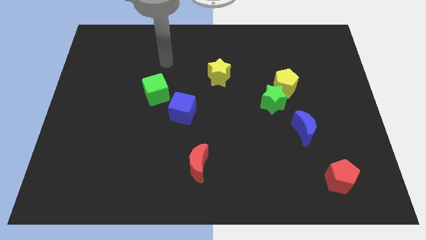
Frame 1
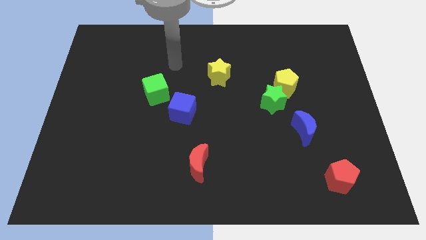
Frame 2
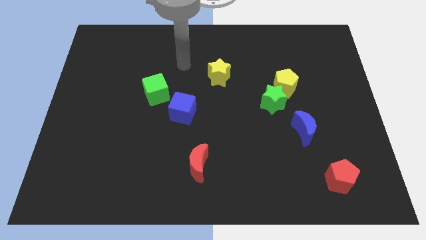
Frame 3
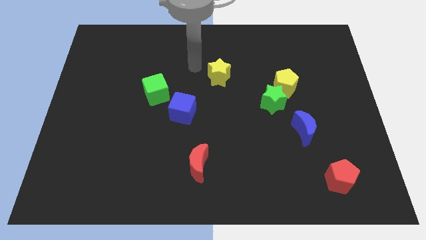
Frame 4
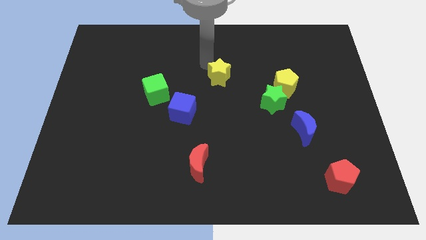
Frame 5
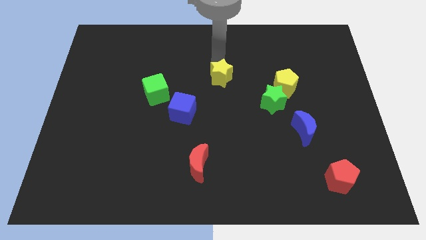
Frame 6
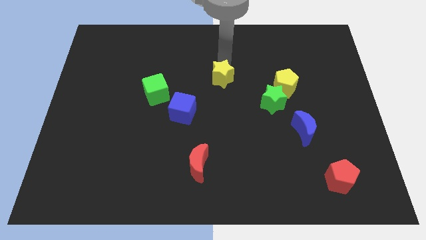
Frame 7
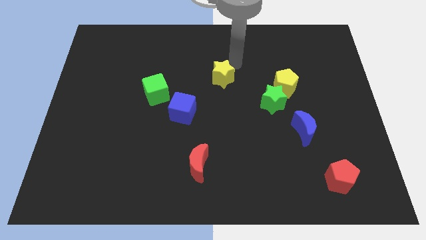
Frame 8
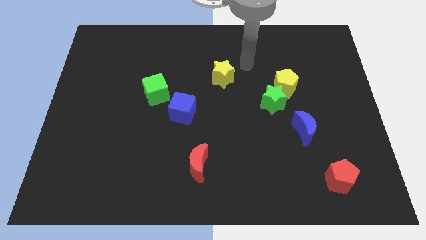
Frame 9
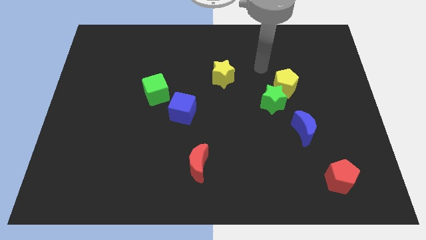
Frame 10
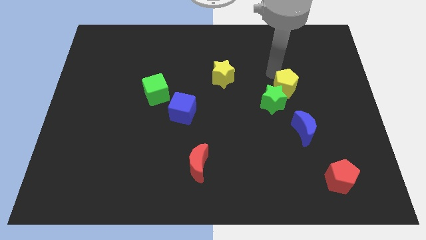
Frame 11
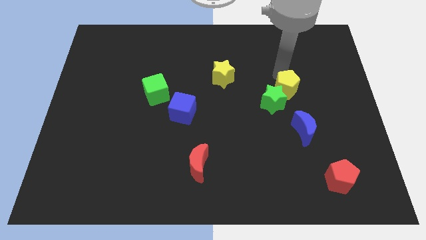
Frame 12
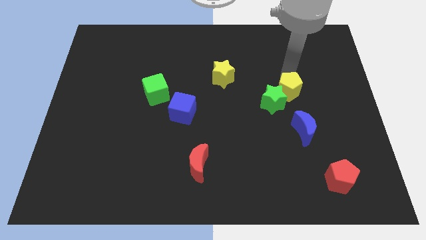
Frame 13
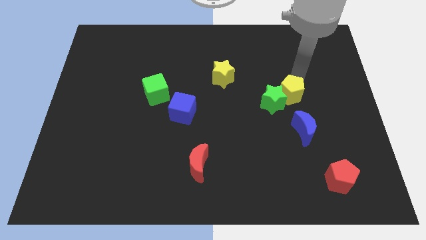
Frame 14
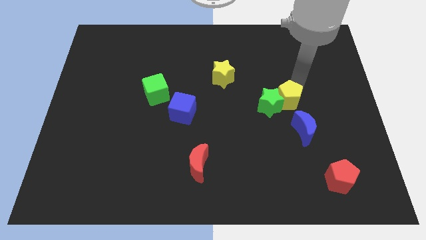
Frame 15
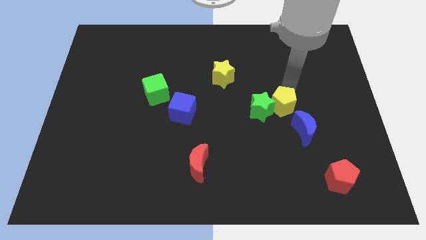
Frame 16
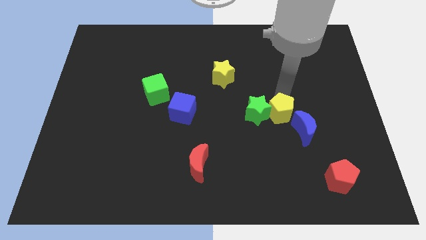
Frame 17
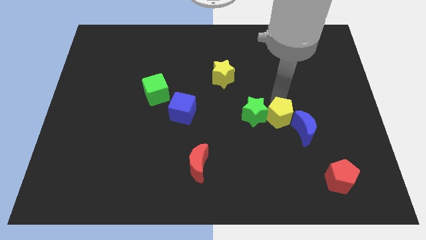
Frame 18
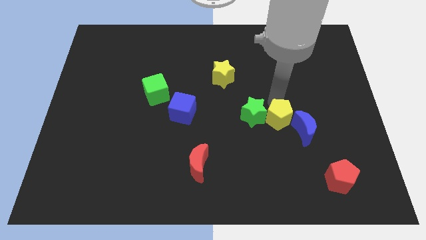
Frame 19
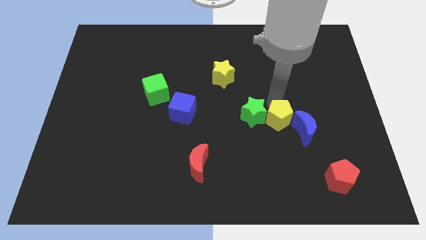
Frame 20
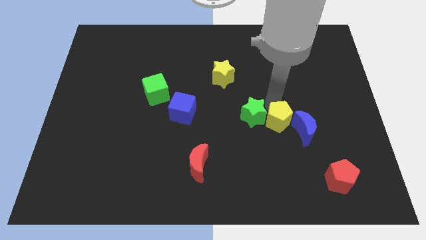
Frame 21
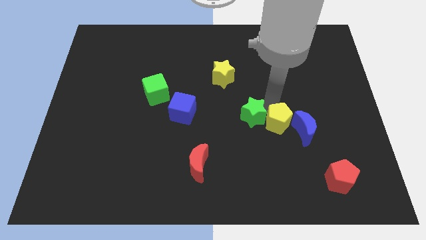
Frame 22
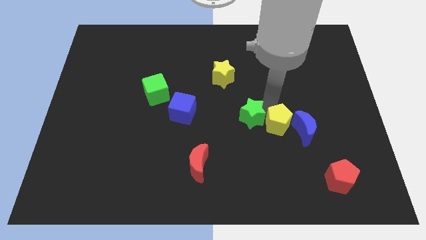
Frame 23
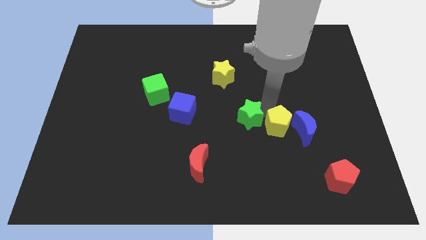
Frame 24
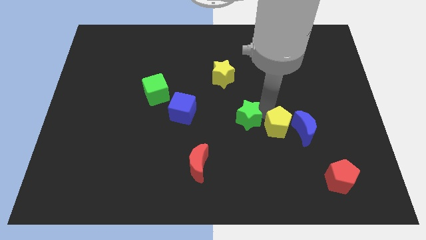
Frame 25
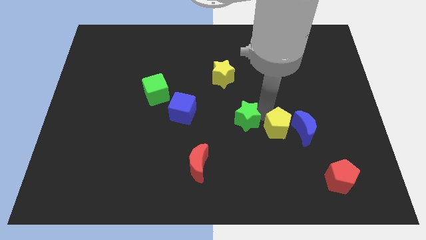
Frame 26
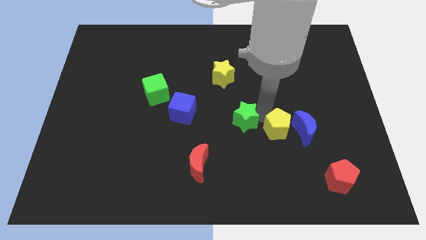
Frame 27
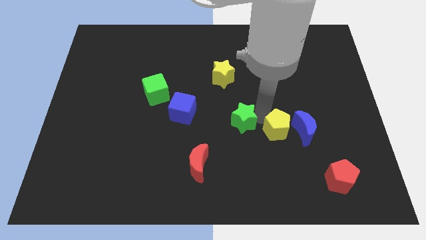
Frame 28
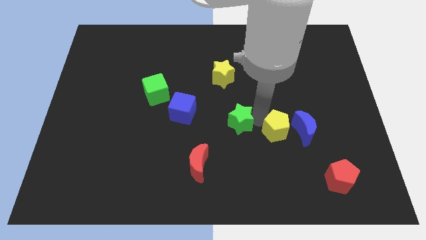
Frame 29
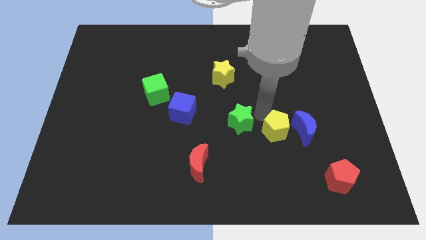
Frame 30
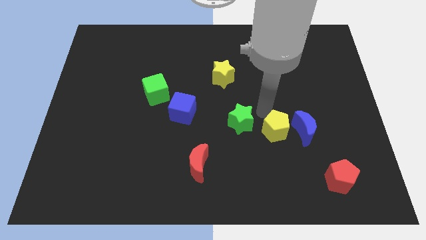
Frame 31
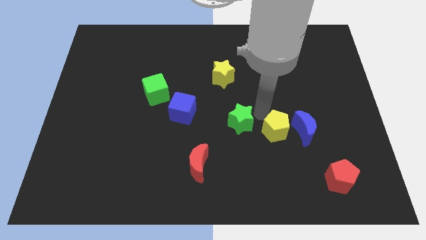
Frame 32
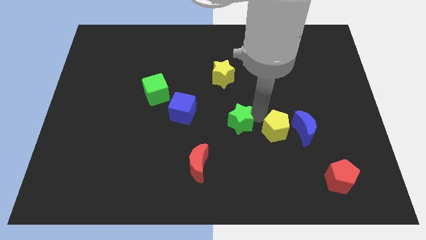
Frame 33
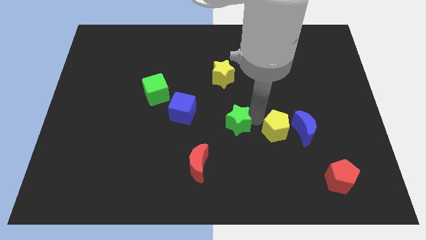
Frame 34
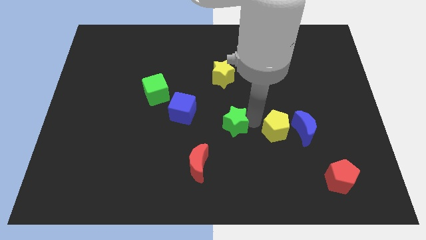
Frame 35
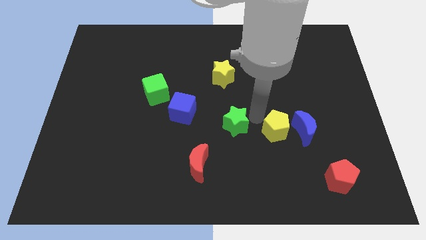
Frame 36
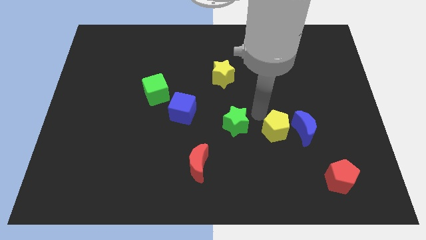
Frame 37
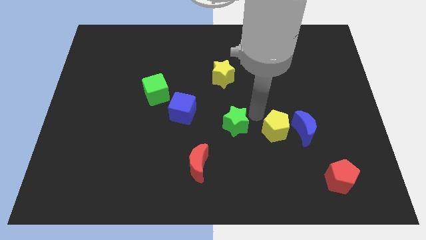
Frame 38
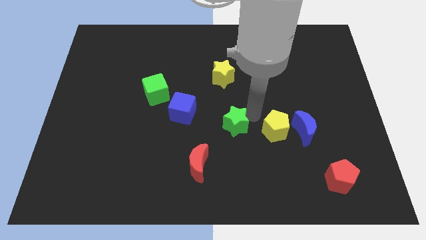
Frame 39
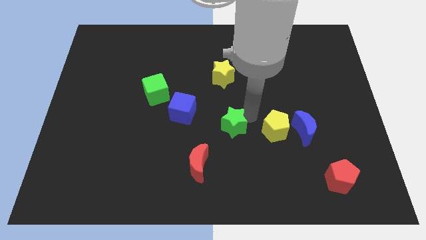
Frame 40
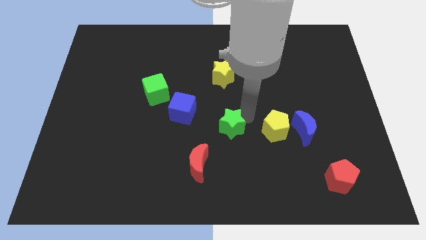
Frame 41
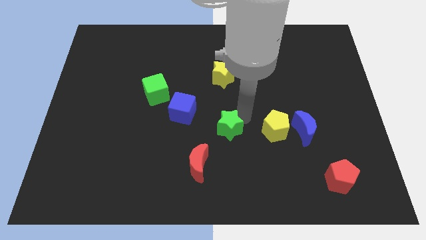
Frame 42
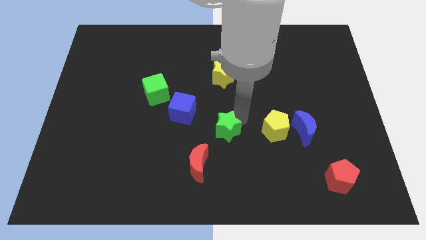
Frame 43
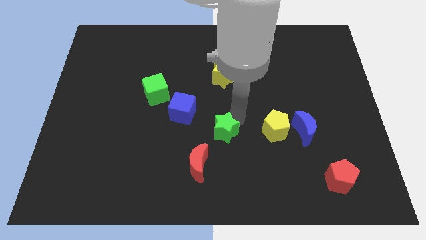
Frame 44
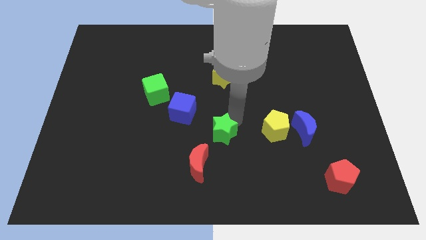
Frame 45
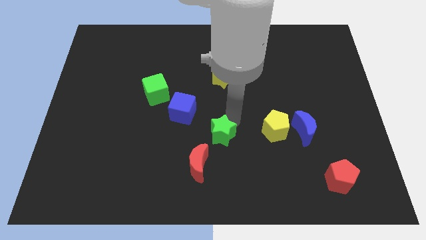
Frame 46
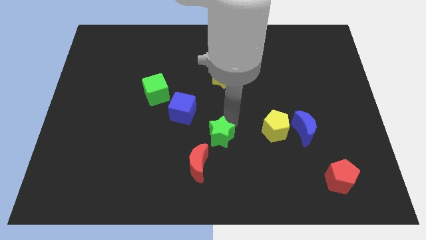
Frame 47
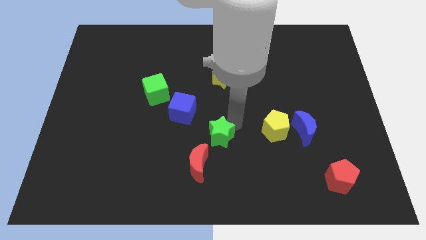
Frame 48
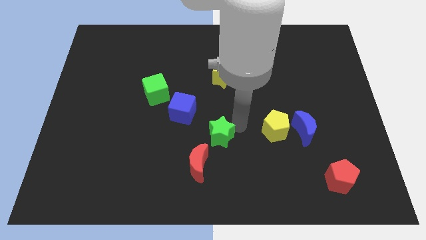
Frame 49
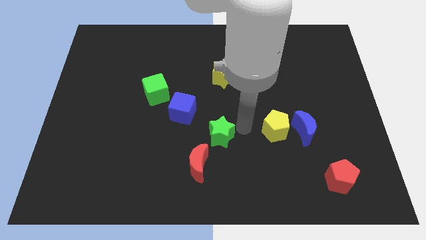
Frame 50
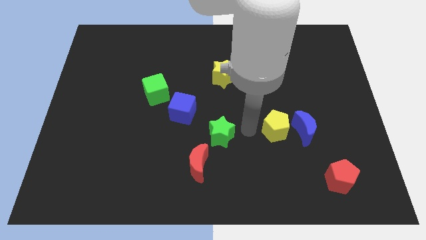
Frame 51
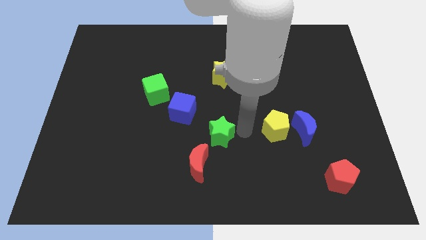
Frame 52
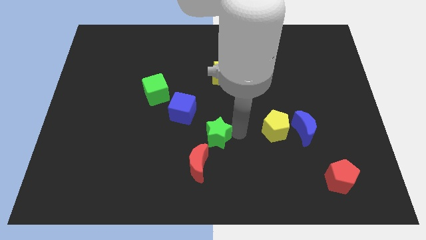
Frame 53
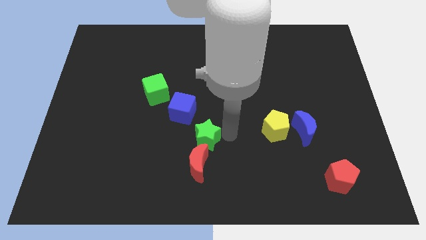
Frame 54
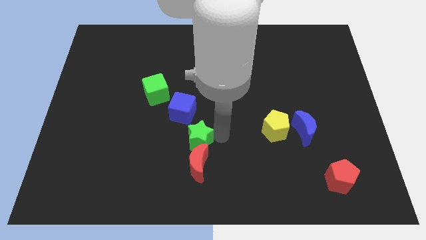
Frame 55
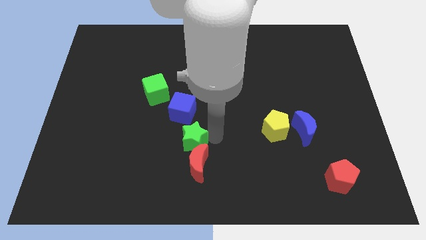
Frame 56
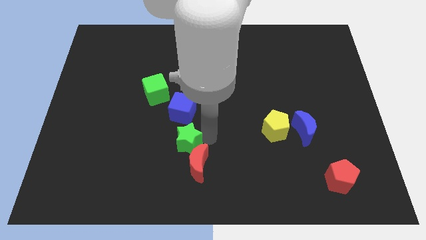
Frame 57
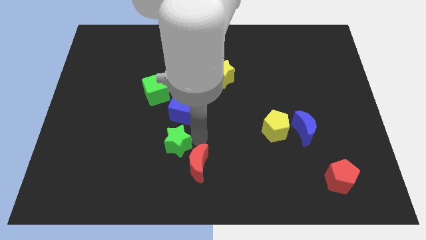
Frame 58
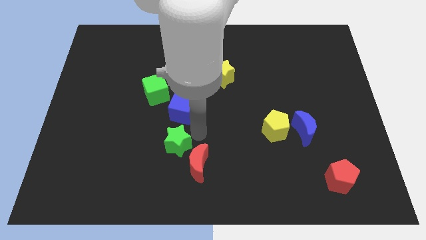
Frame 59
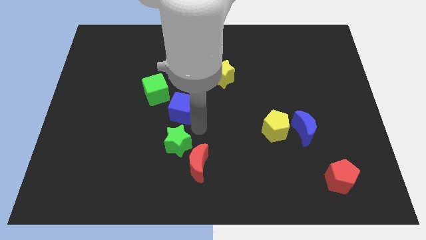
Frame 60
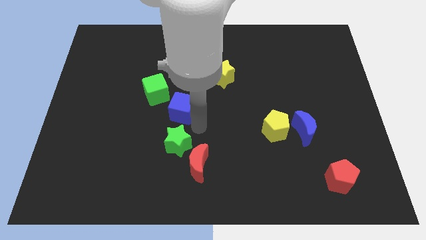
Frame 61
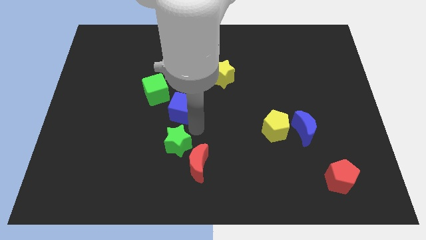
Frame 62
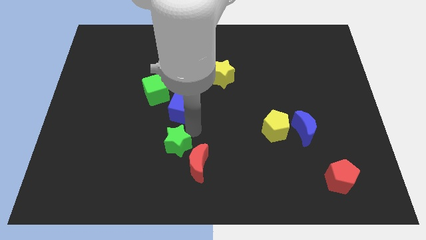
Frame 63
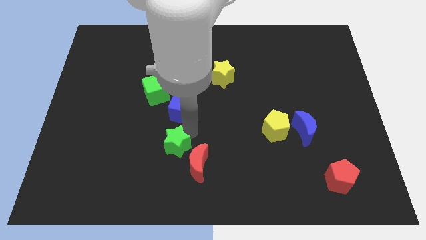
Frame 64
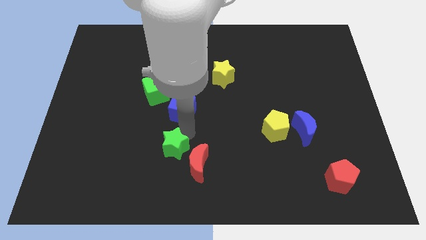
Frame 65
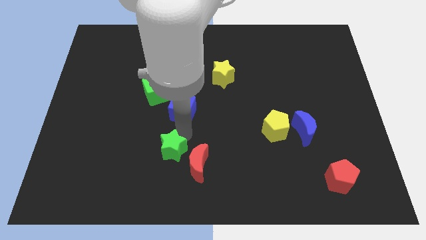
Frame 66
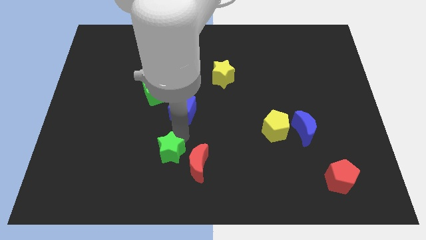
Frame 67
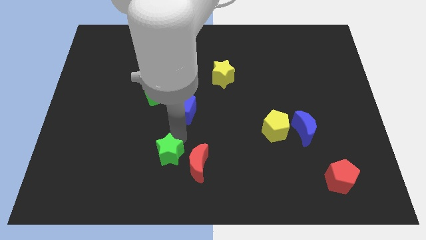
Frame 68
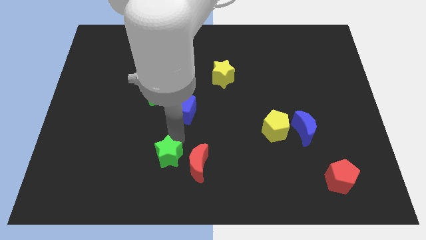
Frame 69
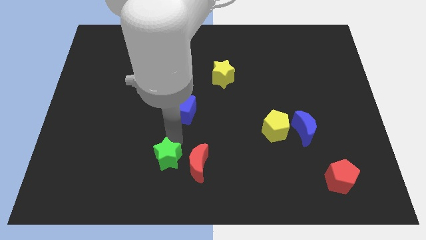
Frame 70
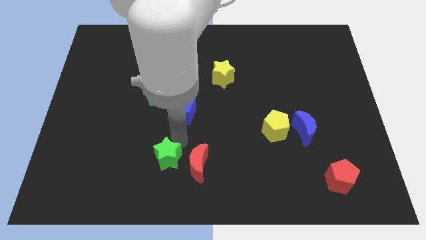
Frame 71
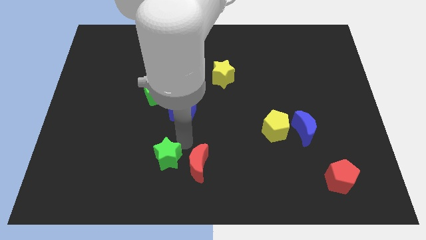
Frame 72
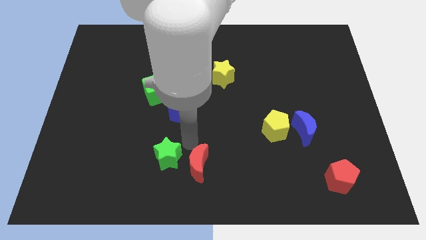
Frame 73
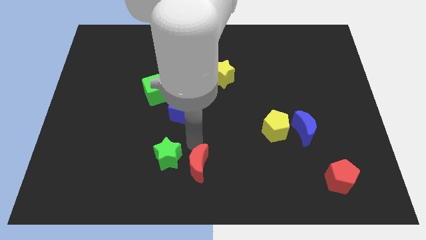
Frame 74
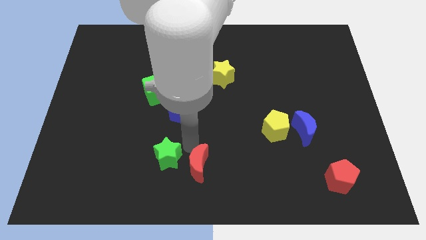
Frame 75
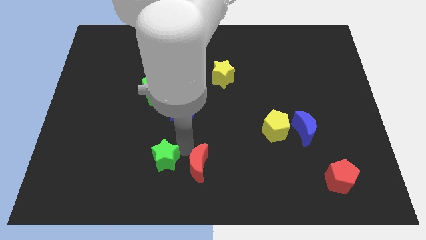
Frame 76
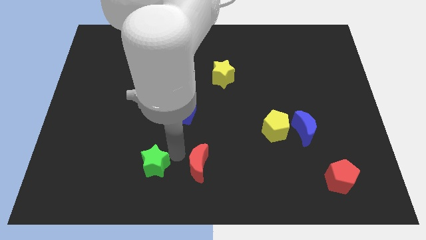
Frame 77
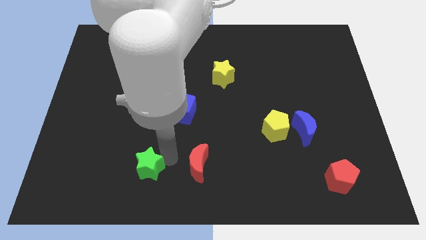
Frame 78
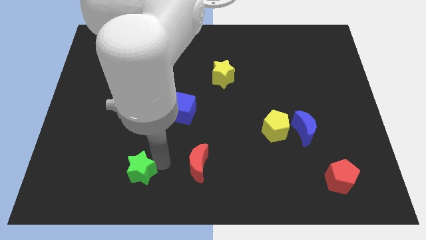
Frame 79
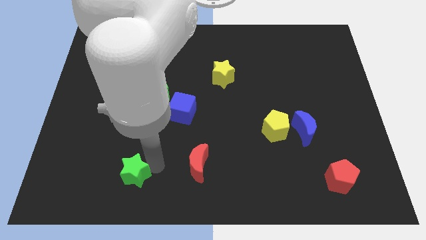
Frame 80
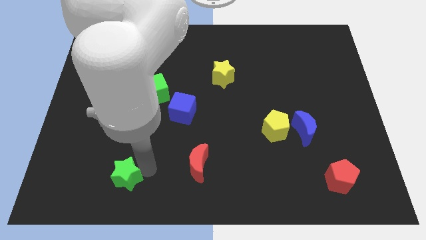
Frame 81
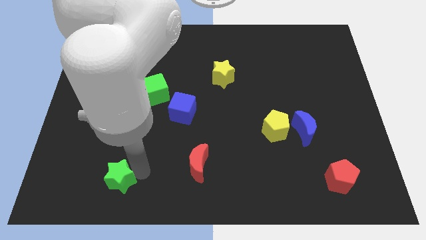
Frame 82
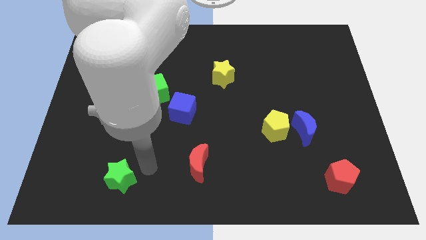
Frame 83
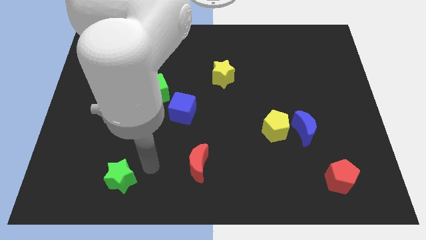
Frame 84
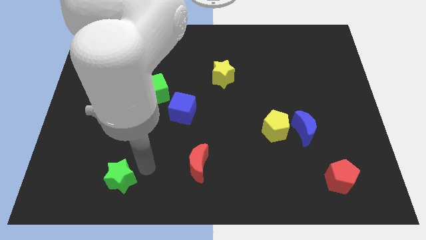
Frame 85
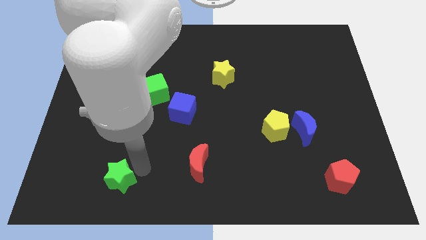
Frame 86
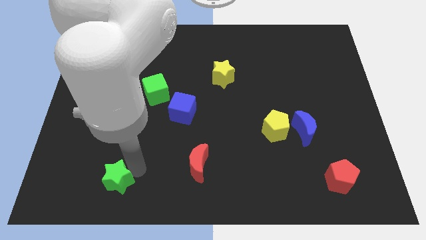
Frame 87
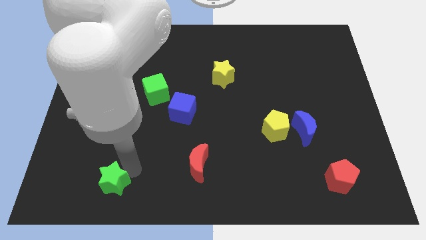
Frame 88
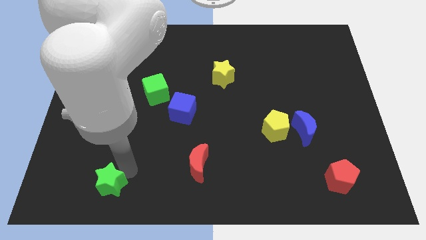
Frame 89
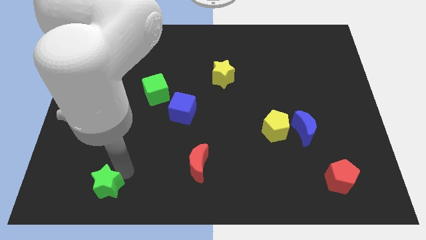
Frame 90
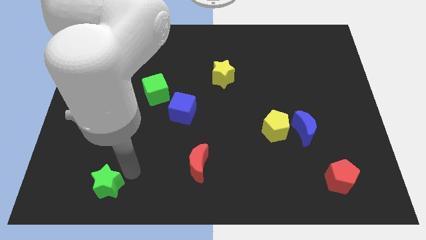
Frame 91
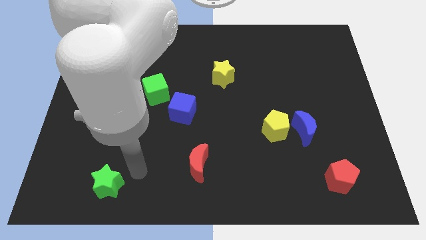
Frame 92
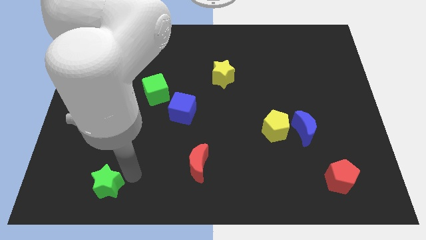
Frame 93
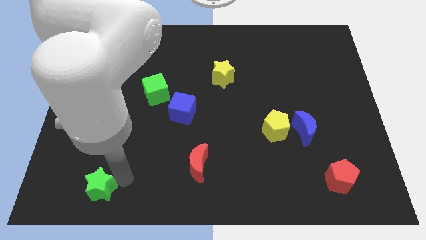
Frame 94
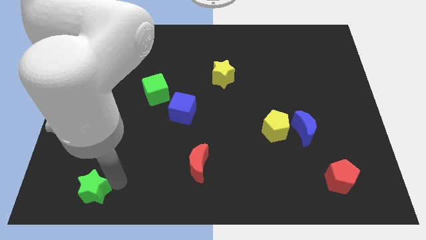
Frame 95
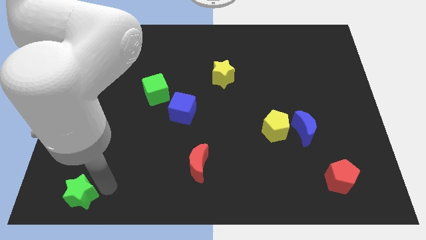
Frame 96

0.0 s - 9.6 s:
put the green star to the bottom left of the board
